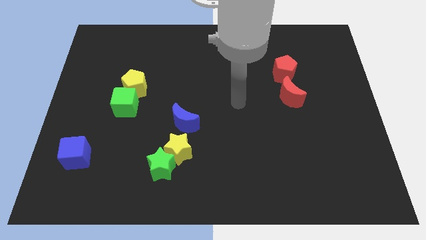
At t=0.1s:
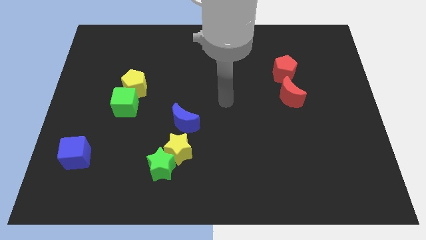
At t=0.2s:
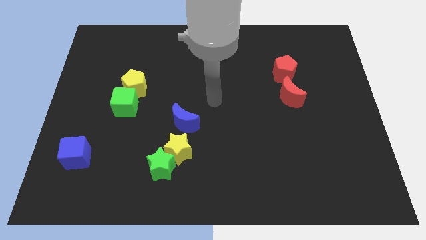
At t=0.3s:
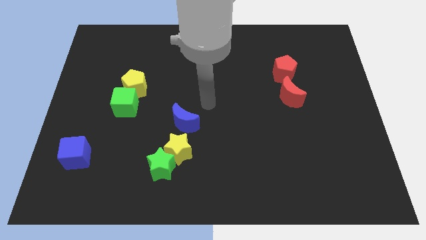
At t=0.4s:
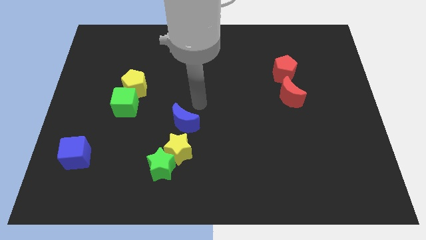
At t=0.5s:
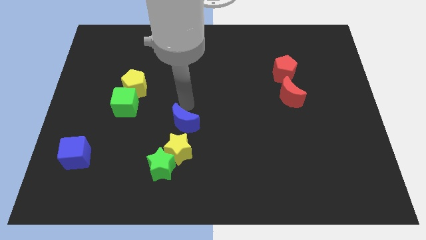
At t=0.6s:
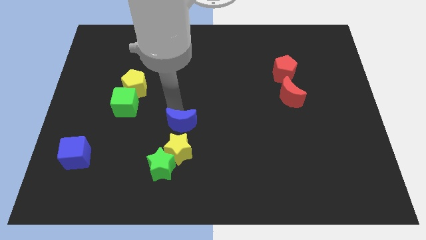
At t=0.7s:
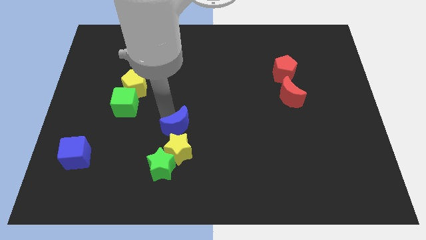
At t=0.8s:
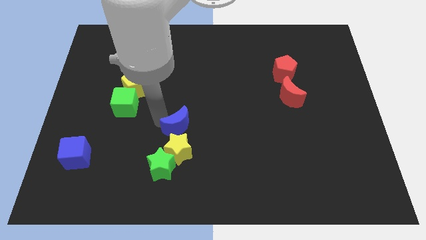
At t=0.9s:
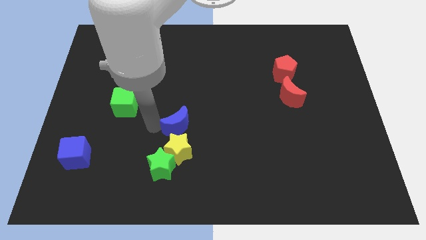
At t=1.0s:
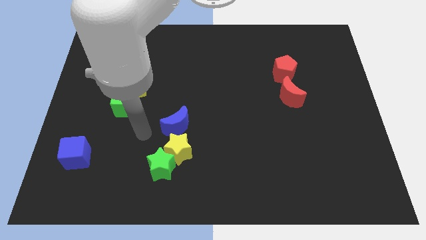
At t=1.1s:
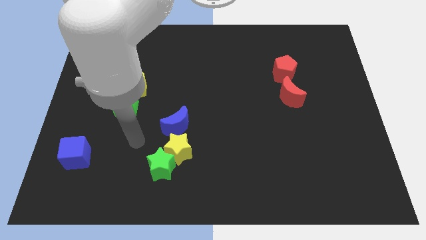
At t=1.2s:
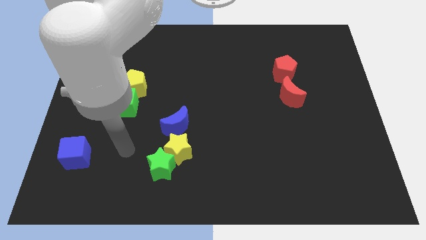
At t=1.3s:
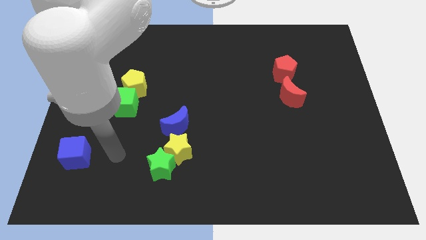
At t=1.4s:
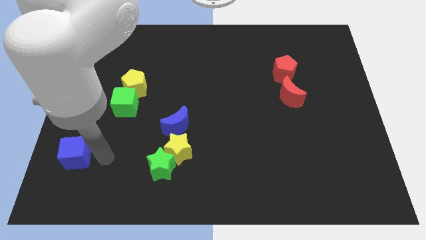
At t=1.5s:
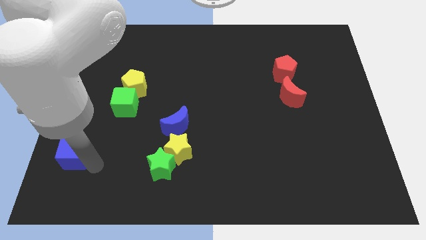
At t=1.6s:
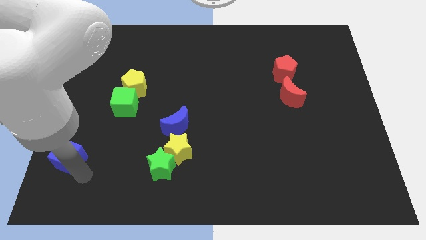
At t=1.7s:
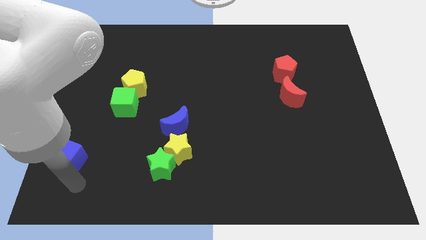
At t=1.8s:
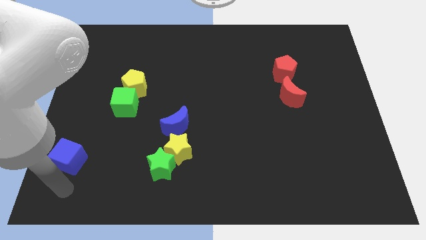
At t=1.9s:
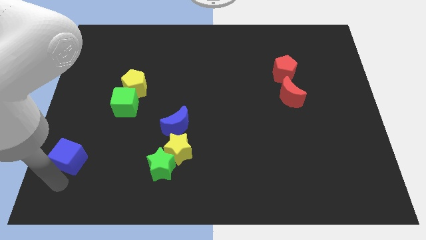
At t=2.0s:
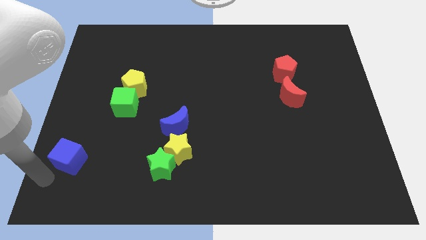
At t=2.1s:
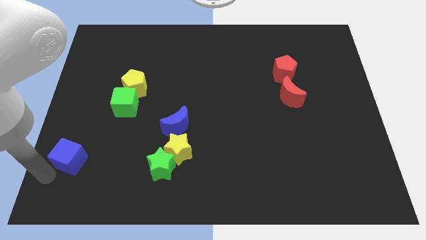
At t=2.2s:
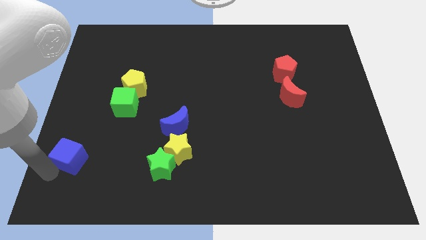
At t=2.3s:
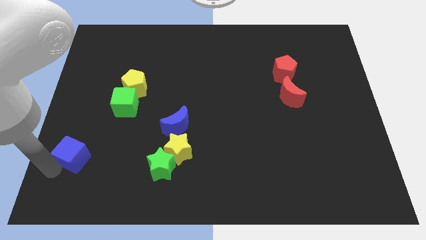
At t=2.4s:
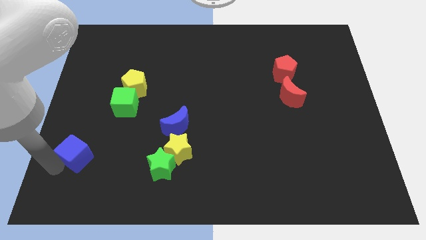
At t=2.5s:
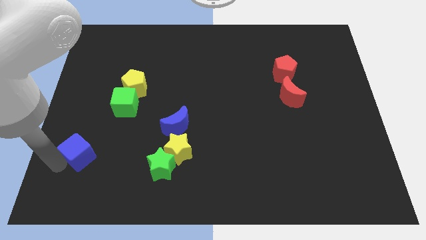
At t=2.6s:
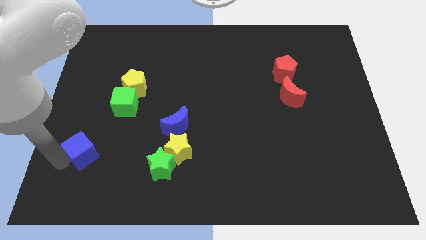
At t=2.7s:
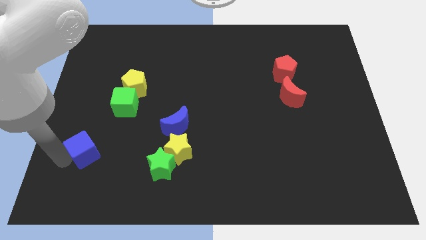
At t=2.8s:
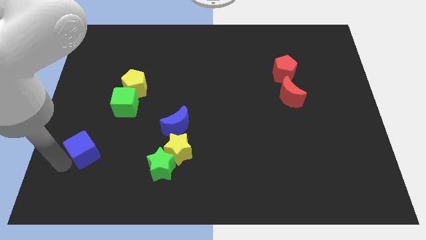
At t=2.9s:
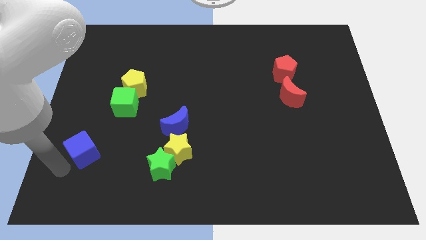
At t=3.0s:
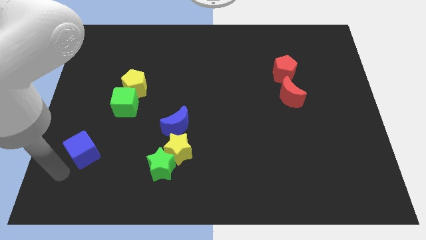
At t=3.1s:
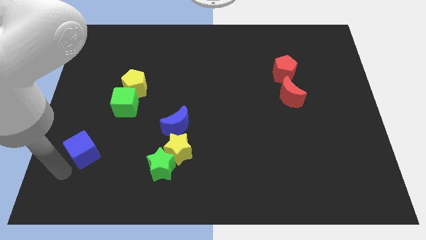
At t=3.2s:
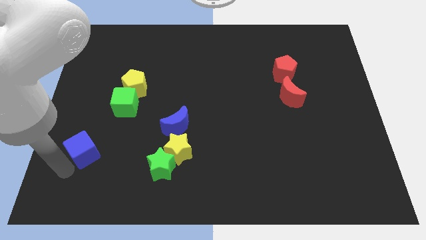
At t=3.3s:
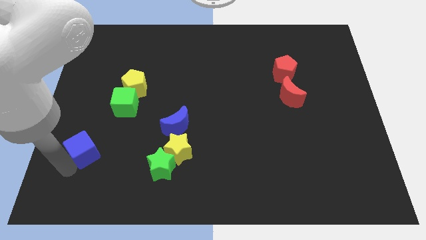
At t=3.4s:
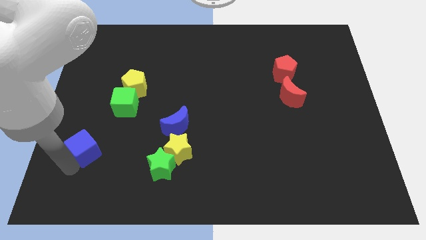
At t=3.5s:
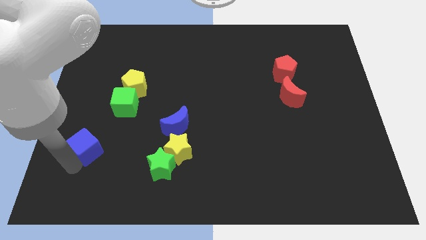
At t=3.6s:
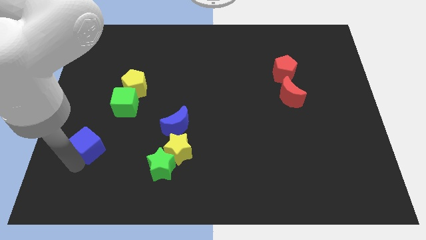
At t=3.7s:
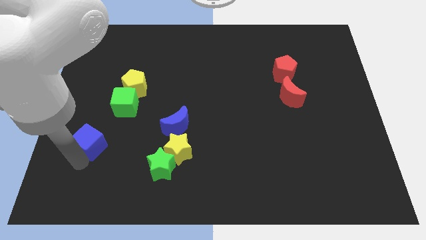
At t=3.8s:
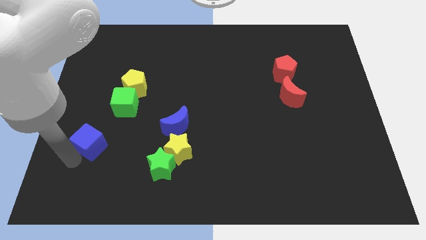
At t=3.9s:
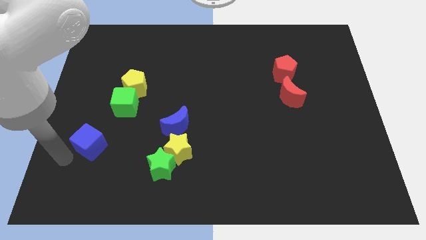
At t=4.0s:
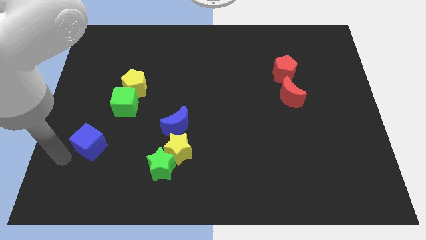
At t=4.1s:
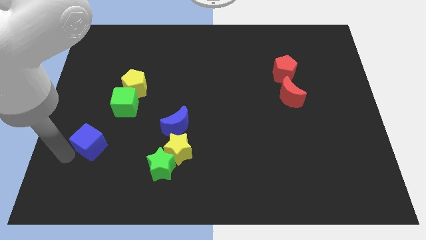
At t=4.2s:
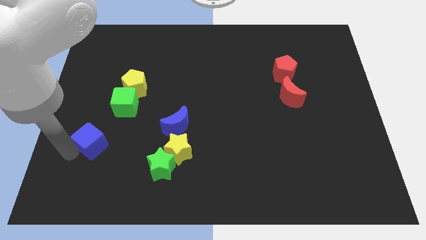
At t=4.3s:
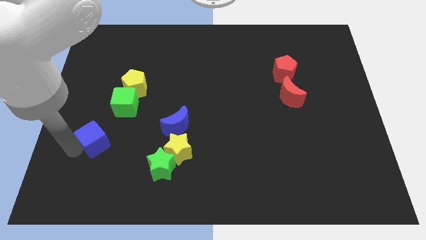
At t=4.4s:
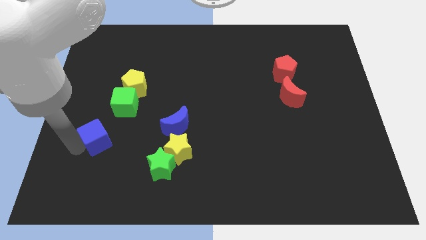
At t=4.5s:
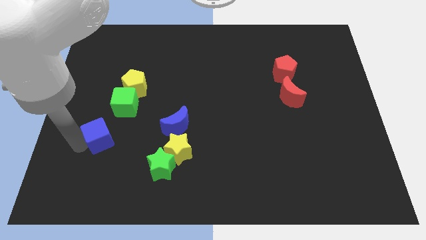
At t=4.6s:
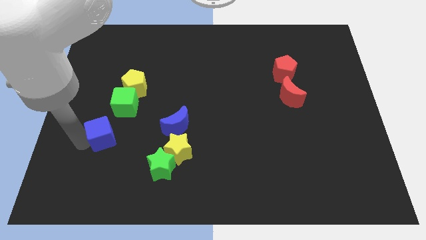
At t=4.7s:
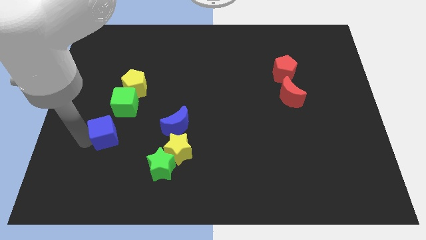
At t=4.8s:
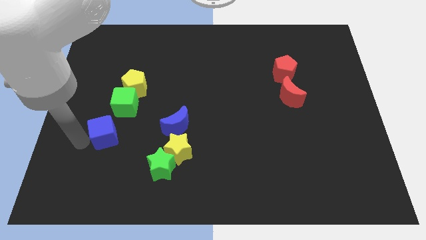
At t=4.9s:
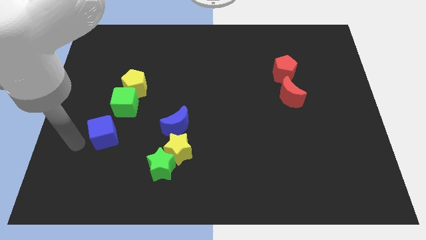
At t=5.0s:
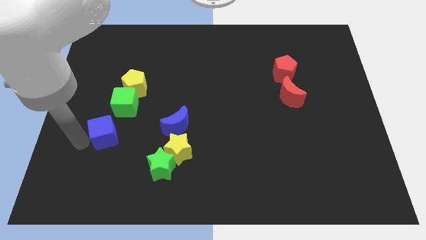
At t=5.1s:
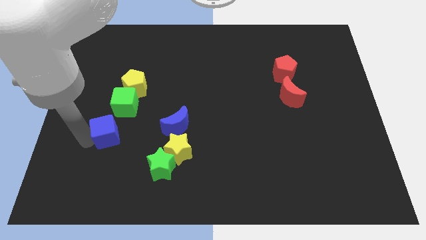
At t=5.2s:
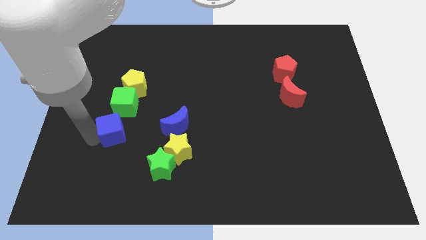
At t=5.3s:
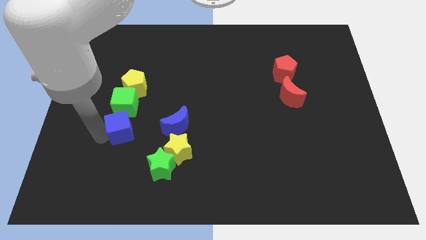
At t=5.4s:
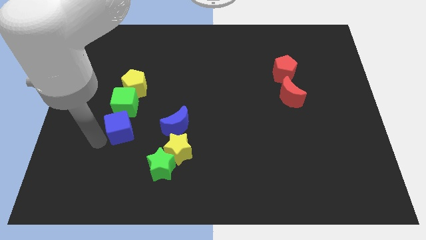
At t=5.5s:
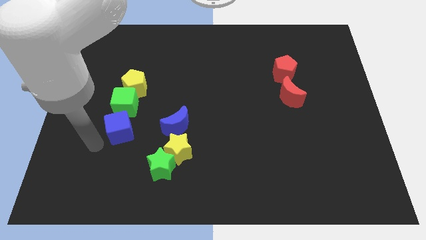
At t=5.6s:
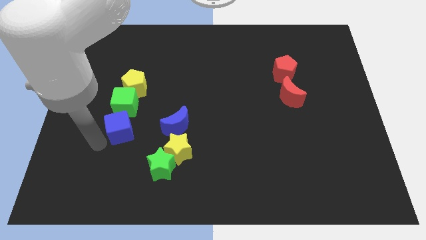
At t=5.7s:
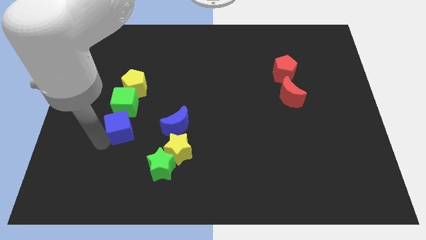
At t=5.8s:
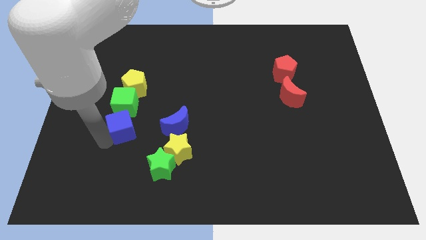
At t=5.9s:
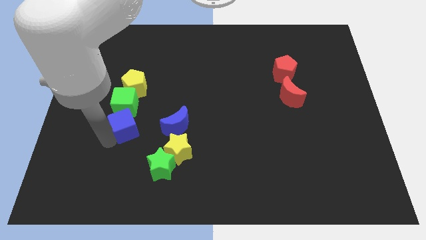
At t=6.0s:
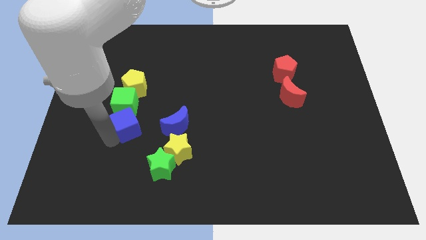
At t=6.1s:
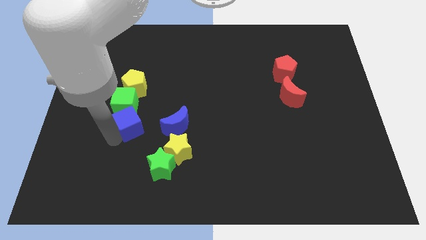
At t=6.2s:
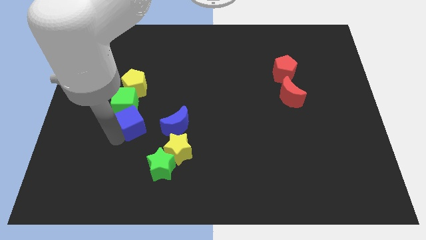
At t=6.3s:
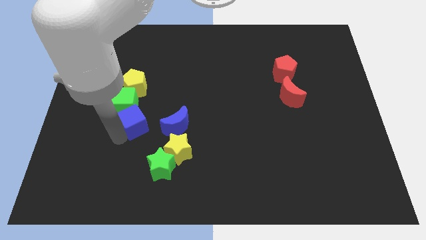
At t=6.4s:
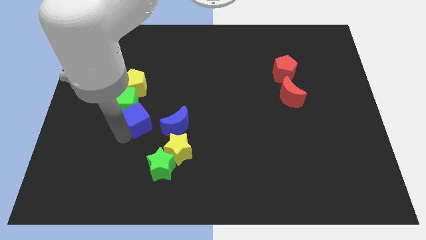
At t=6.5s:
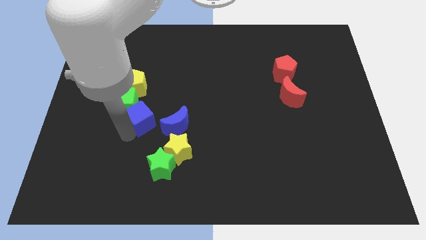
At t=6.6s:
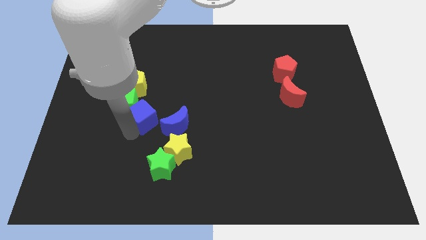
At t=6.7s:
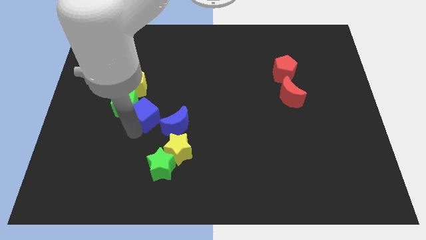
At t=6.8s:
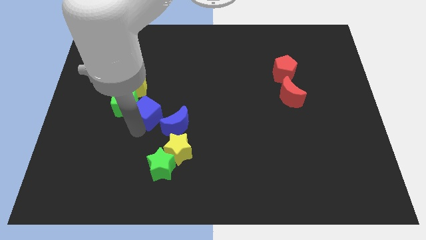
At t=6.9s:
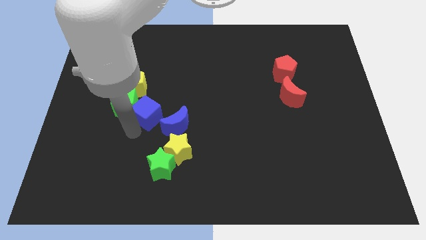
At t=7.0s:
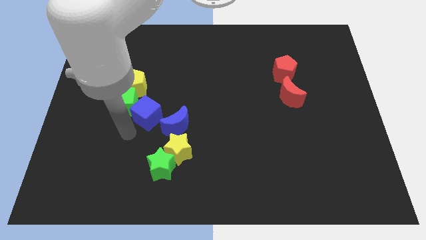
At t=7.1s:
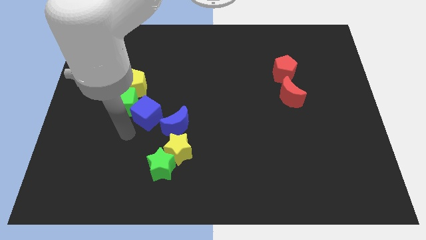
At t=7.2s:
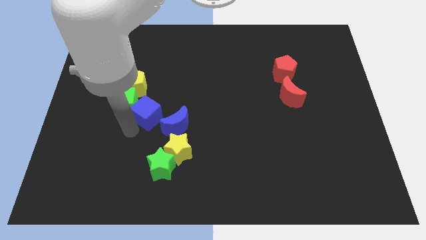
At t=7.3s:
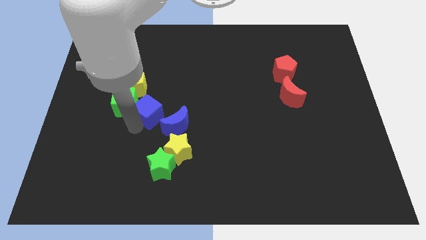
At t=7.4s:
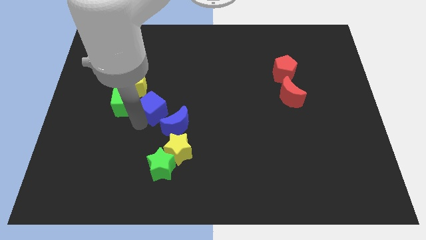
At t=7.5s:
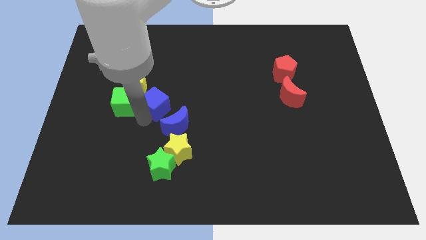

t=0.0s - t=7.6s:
push the blue cube up and then right

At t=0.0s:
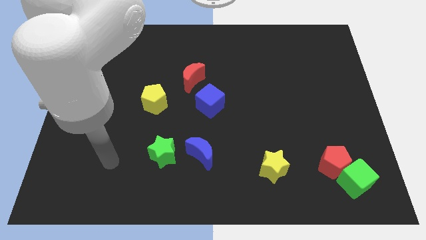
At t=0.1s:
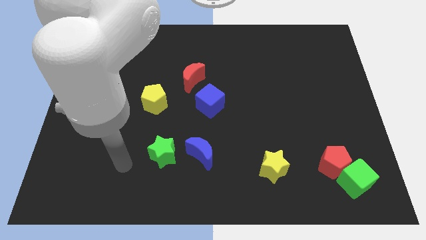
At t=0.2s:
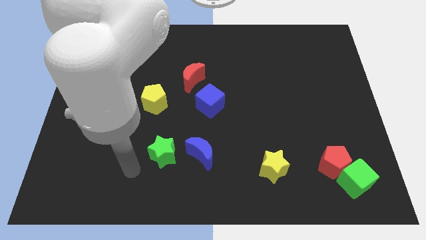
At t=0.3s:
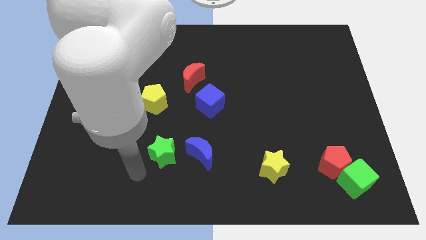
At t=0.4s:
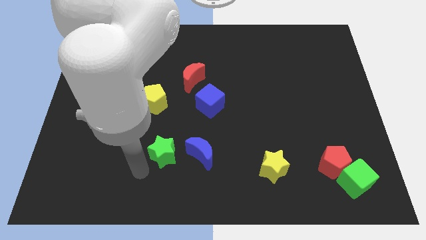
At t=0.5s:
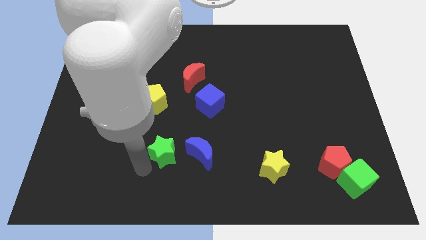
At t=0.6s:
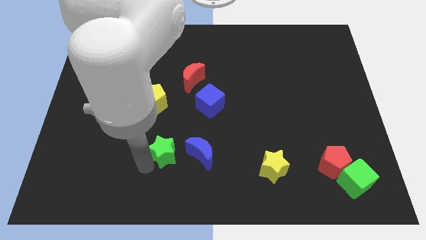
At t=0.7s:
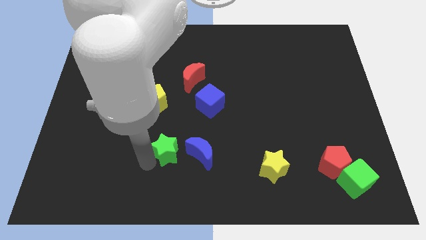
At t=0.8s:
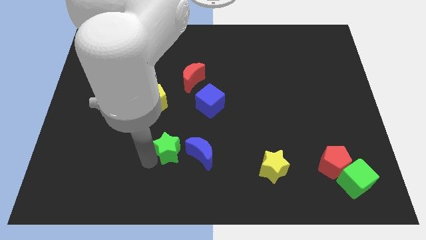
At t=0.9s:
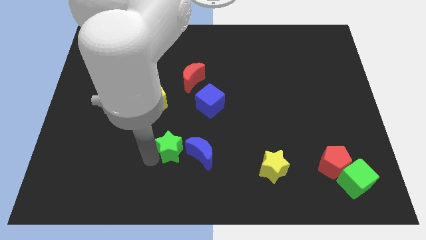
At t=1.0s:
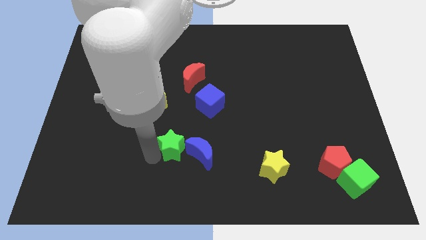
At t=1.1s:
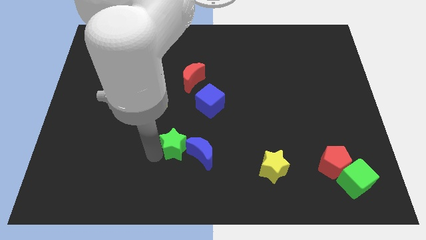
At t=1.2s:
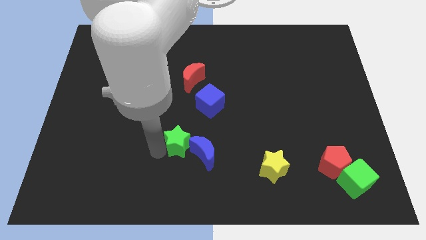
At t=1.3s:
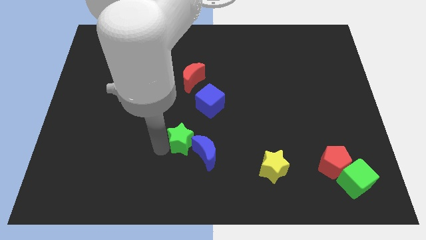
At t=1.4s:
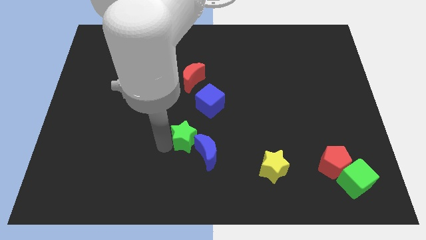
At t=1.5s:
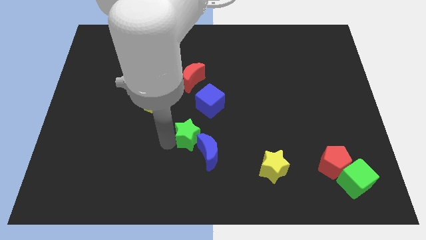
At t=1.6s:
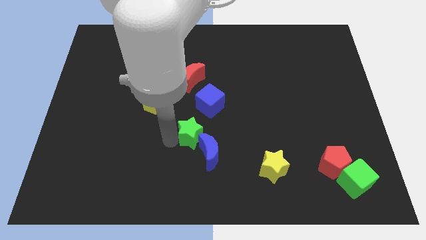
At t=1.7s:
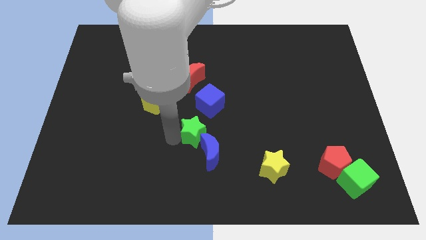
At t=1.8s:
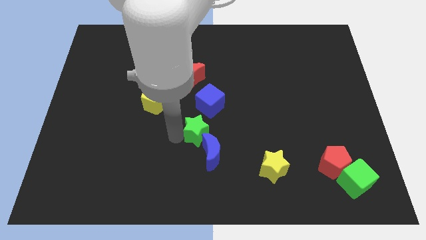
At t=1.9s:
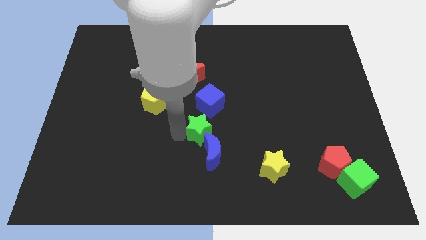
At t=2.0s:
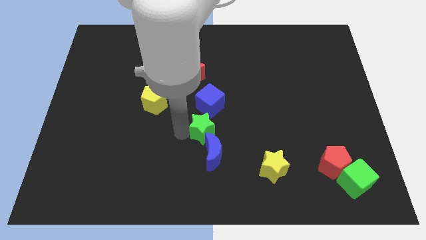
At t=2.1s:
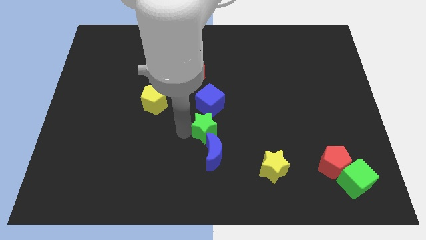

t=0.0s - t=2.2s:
push the green star to the right a little bit
